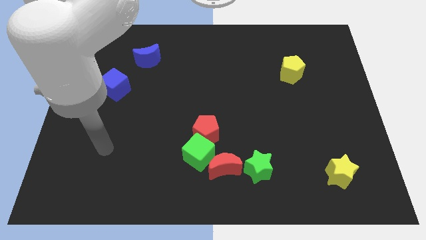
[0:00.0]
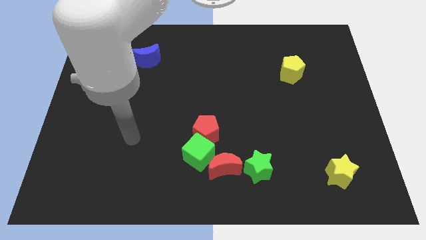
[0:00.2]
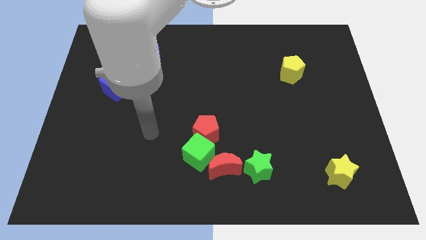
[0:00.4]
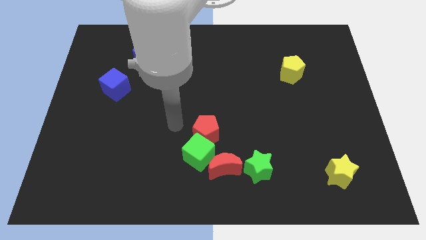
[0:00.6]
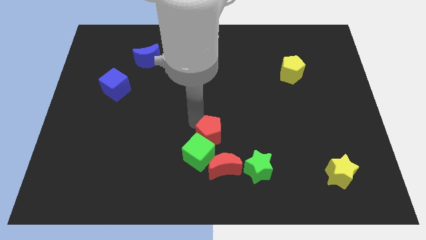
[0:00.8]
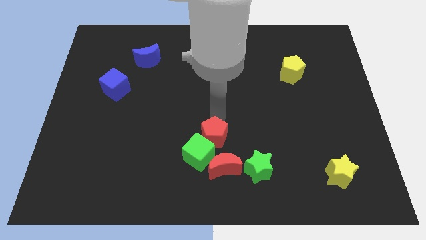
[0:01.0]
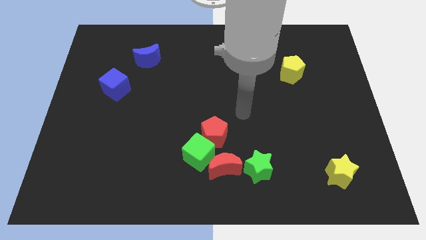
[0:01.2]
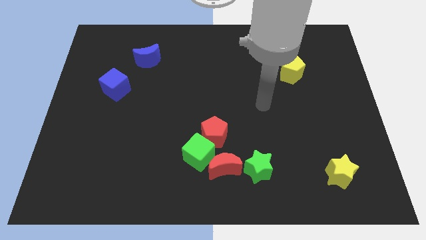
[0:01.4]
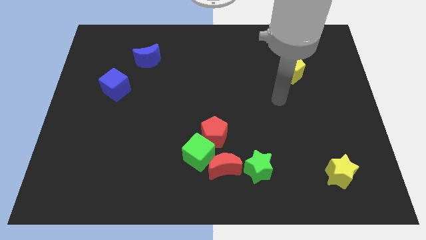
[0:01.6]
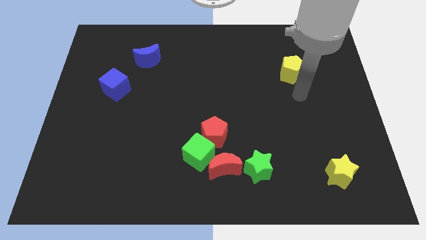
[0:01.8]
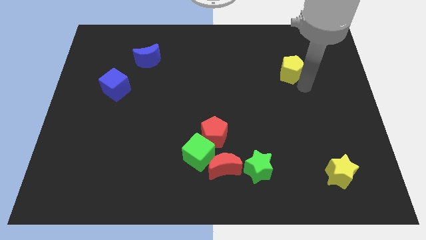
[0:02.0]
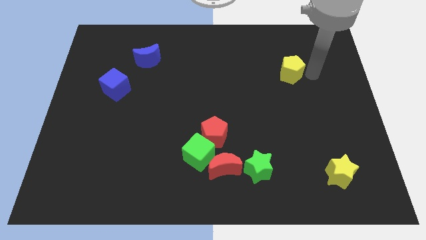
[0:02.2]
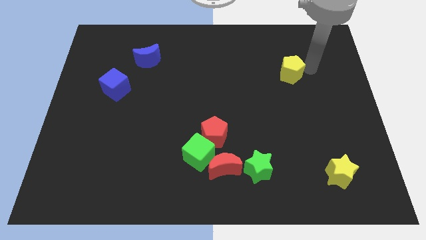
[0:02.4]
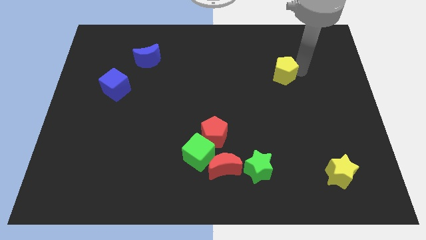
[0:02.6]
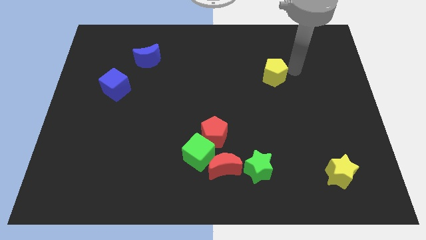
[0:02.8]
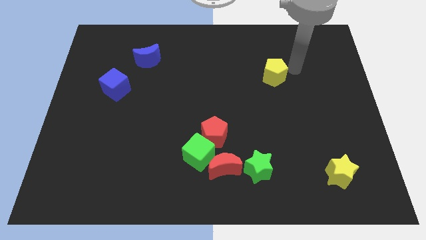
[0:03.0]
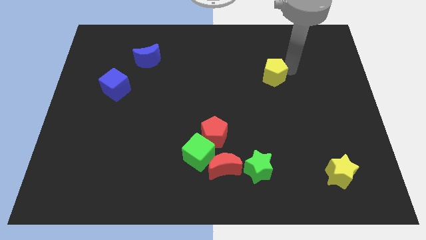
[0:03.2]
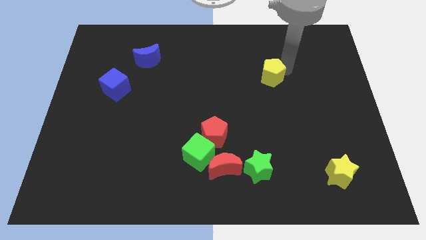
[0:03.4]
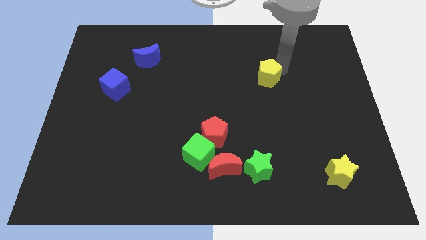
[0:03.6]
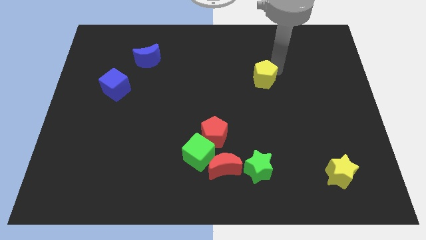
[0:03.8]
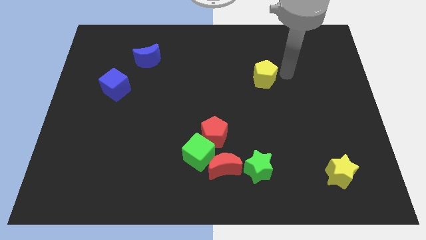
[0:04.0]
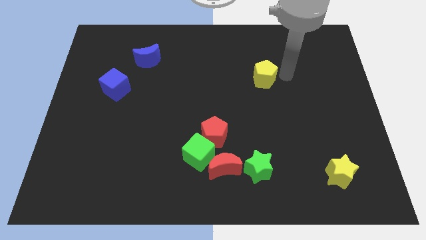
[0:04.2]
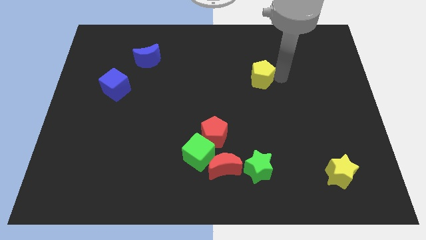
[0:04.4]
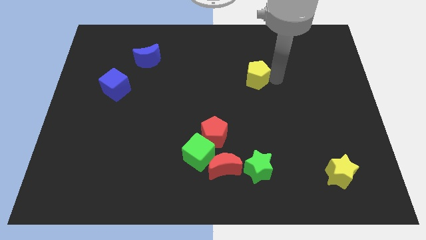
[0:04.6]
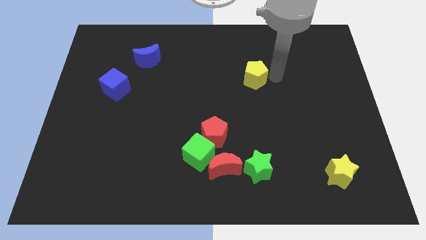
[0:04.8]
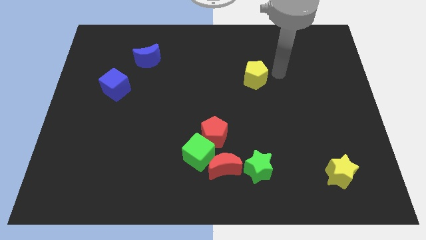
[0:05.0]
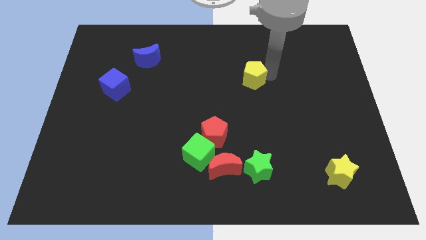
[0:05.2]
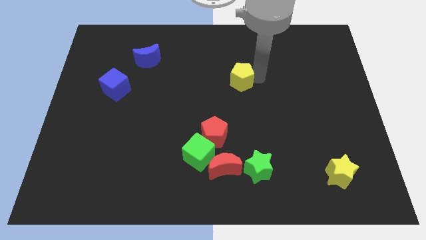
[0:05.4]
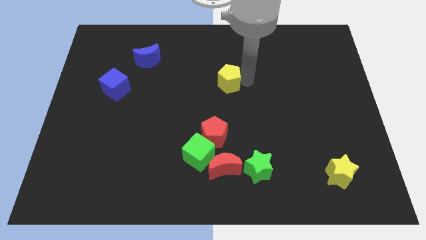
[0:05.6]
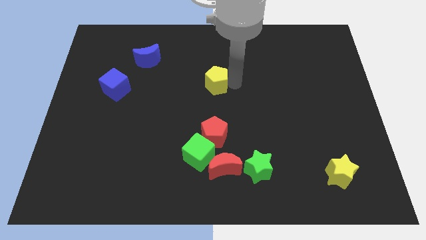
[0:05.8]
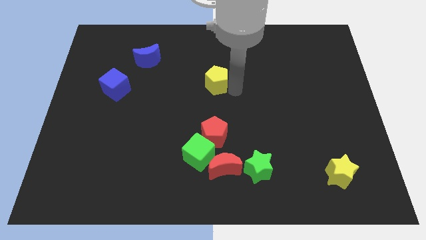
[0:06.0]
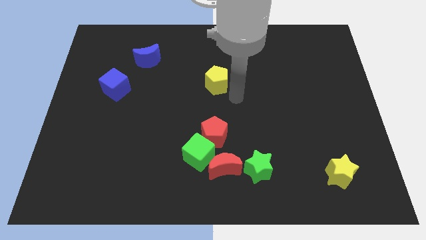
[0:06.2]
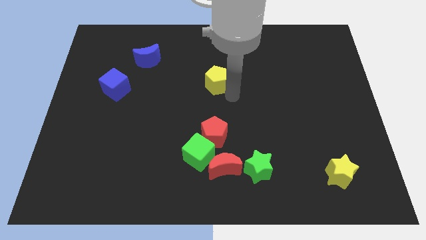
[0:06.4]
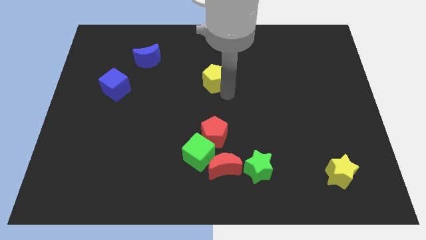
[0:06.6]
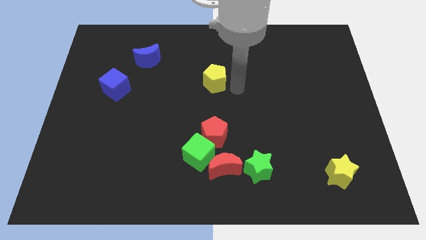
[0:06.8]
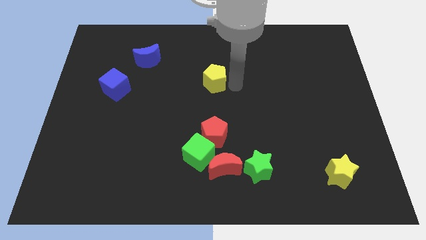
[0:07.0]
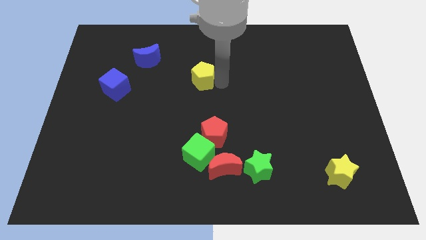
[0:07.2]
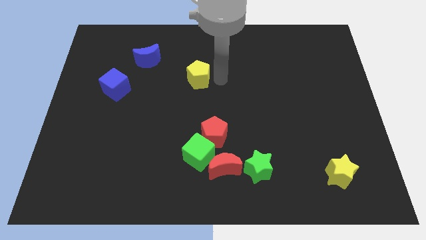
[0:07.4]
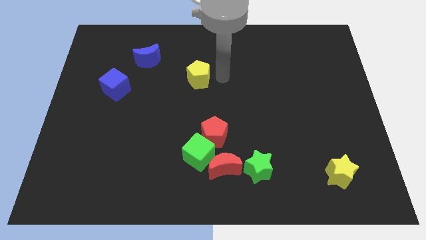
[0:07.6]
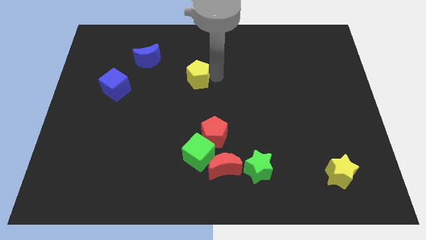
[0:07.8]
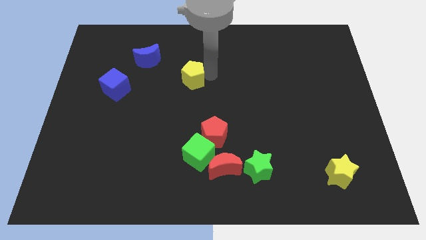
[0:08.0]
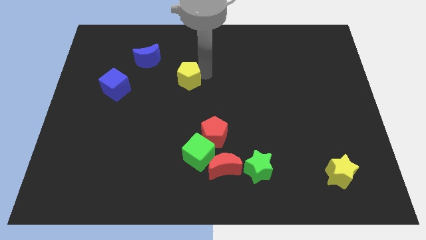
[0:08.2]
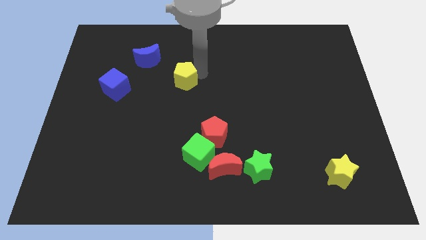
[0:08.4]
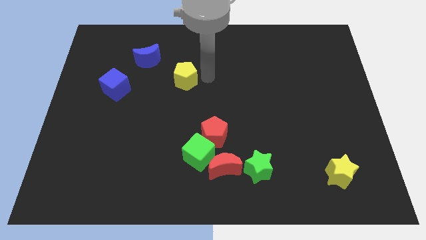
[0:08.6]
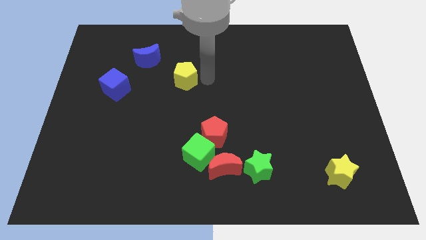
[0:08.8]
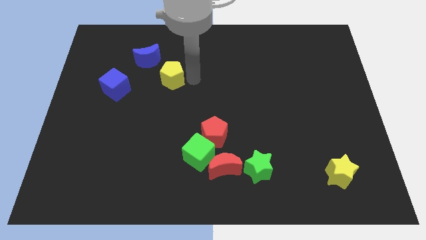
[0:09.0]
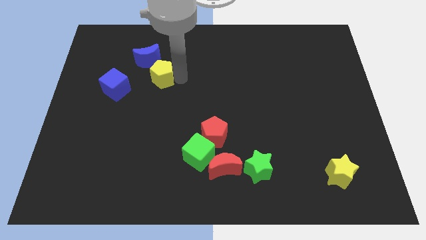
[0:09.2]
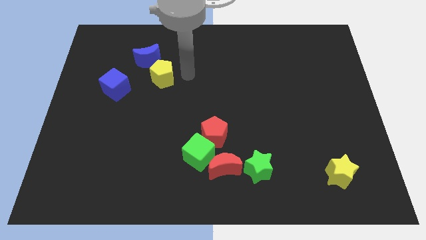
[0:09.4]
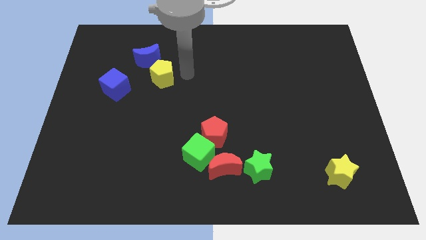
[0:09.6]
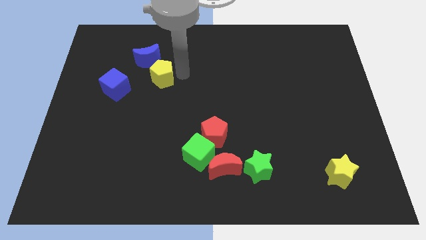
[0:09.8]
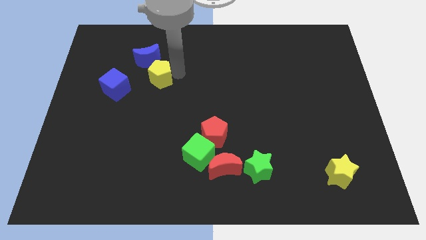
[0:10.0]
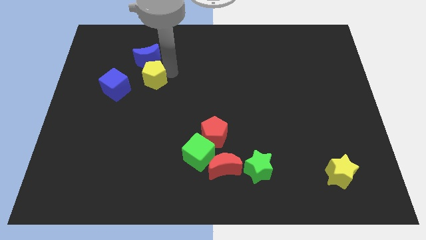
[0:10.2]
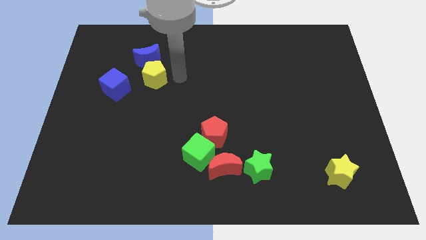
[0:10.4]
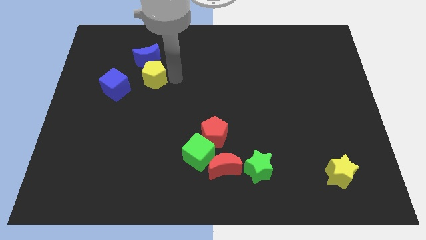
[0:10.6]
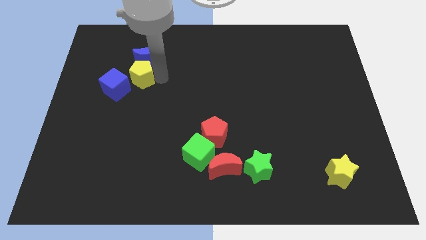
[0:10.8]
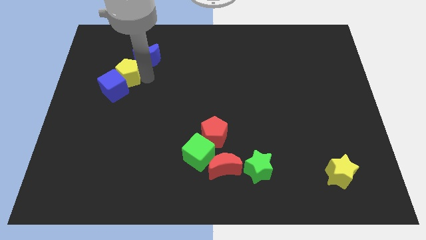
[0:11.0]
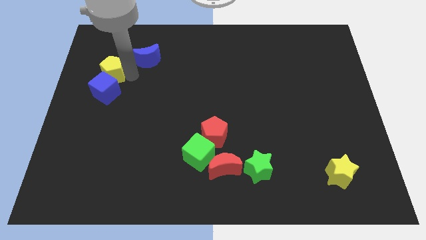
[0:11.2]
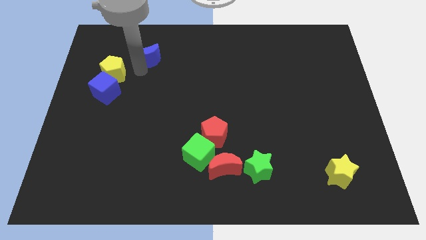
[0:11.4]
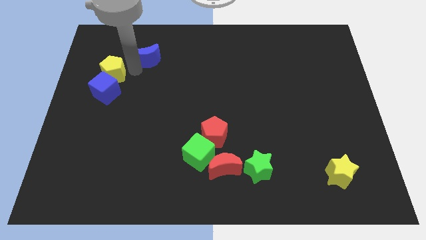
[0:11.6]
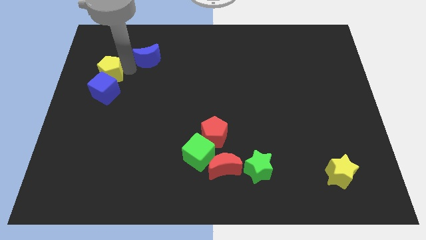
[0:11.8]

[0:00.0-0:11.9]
put the yellow pentagon to the top left side of the blue cube

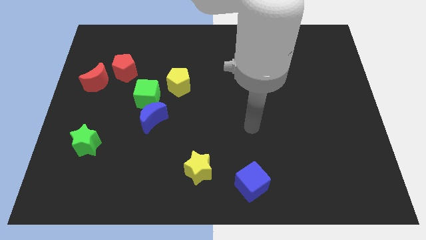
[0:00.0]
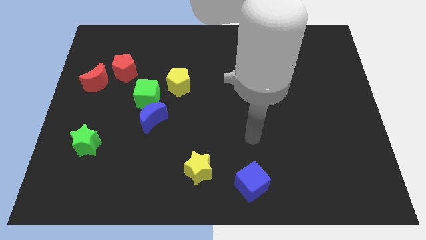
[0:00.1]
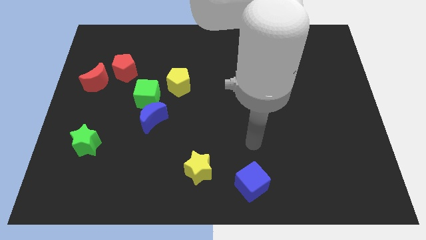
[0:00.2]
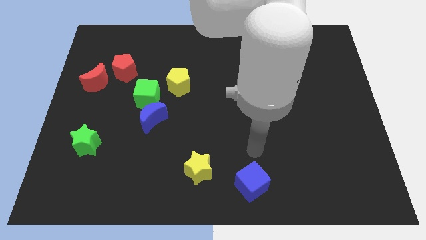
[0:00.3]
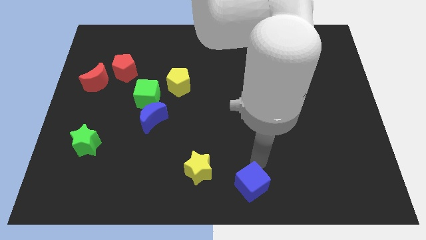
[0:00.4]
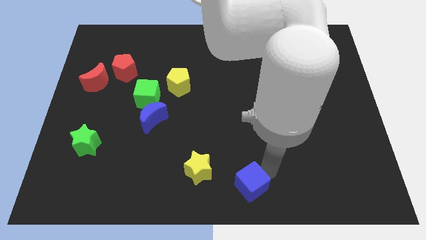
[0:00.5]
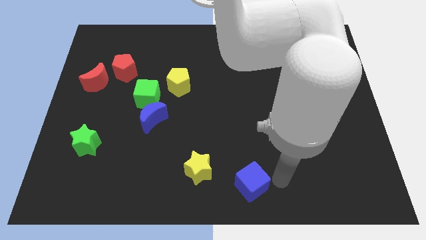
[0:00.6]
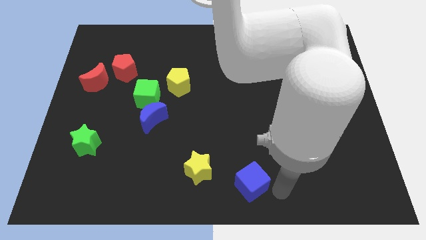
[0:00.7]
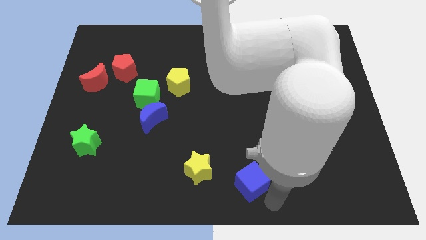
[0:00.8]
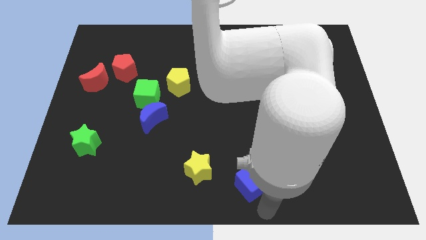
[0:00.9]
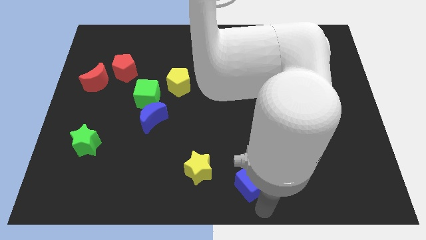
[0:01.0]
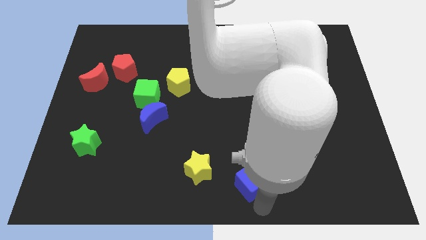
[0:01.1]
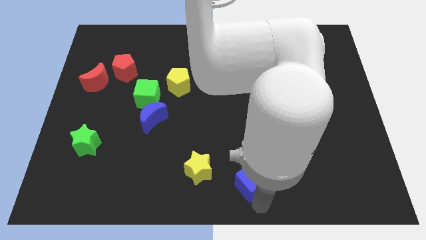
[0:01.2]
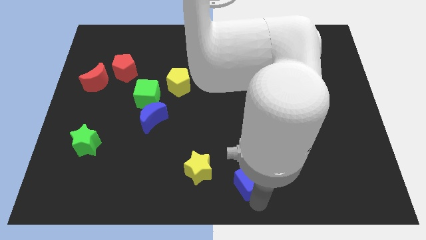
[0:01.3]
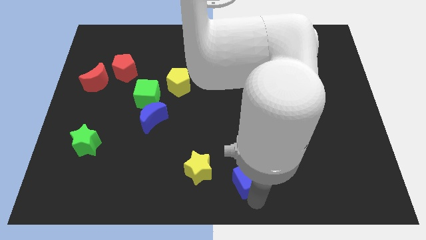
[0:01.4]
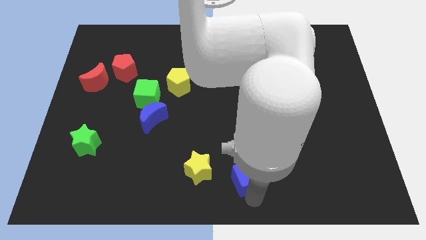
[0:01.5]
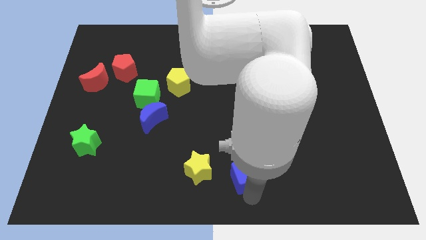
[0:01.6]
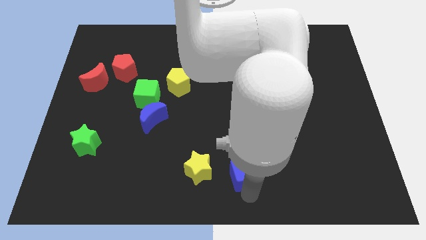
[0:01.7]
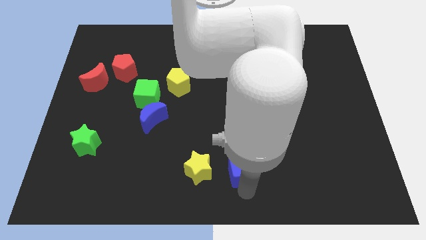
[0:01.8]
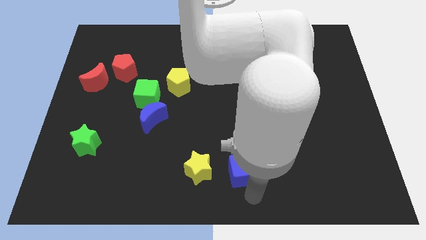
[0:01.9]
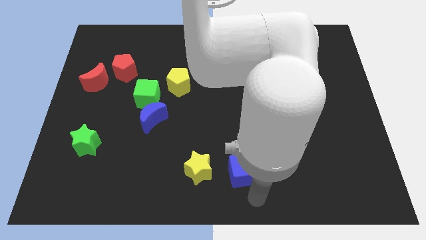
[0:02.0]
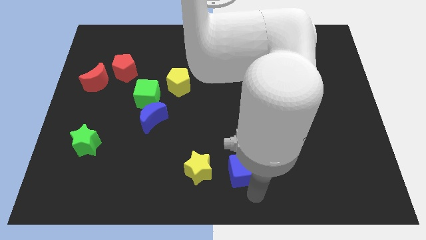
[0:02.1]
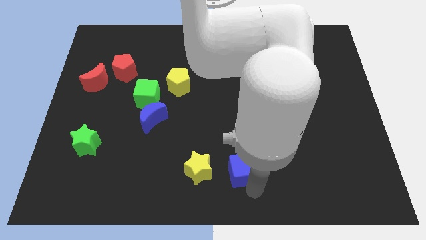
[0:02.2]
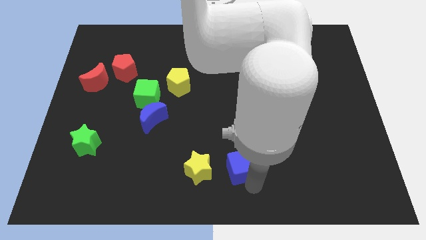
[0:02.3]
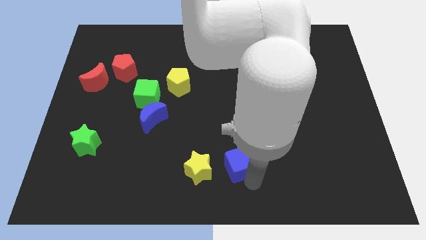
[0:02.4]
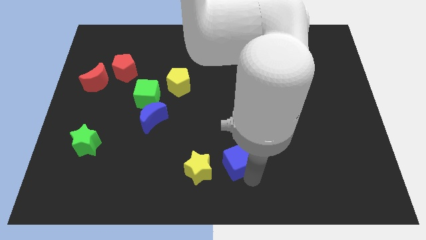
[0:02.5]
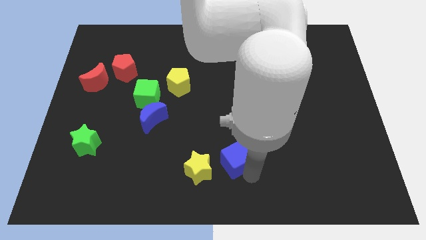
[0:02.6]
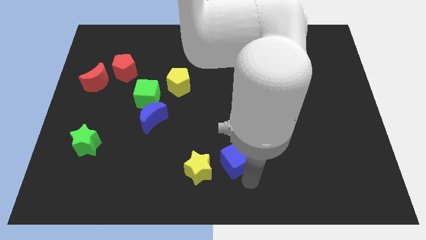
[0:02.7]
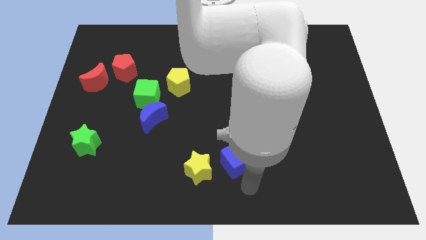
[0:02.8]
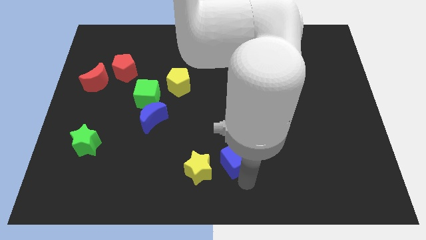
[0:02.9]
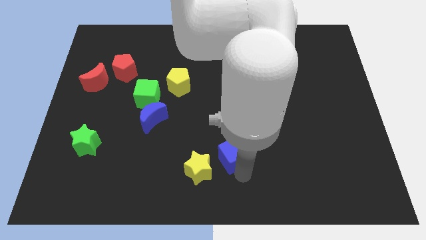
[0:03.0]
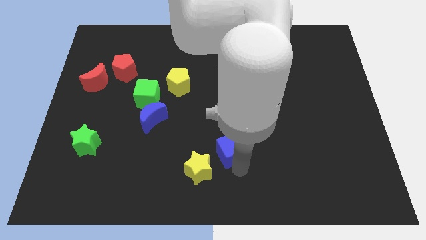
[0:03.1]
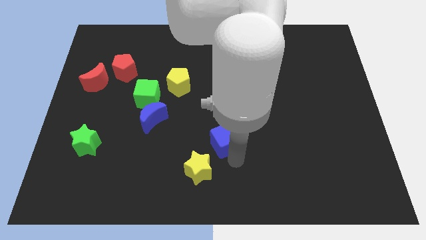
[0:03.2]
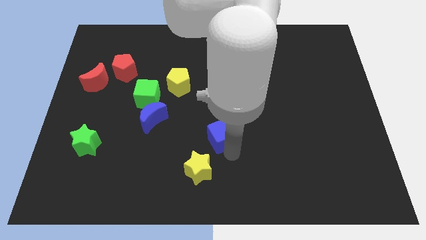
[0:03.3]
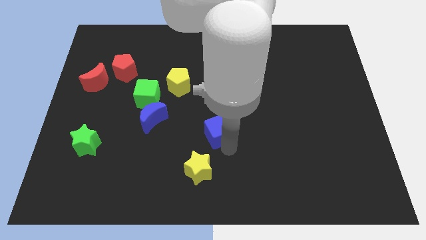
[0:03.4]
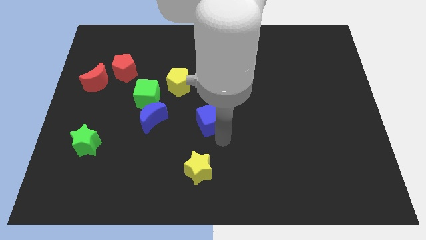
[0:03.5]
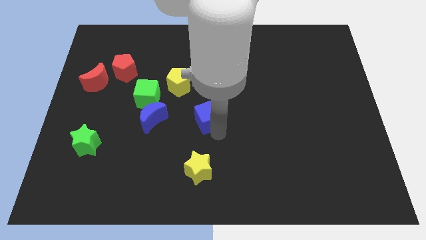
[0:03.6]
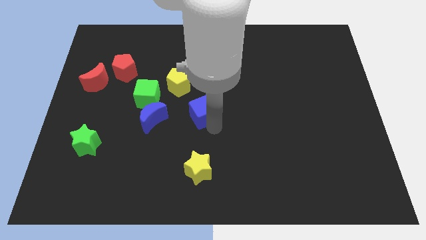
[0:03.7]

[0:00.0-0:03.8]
move the blue cube to the bottom right of the yellow pentagon
